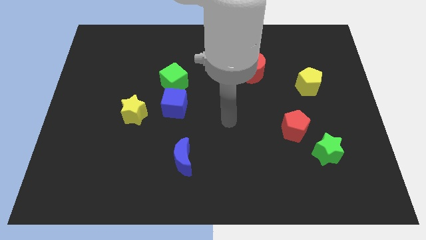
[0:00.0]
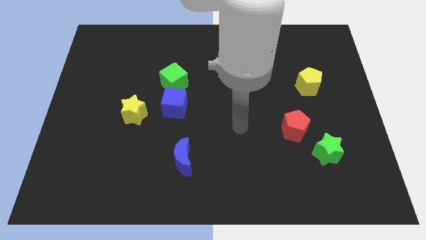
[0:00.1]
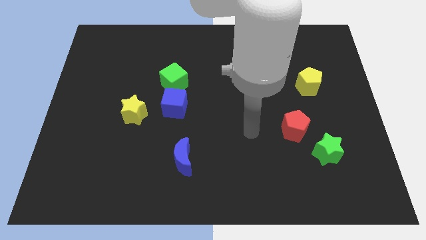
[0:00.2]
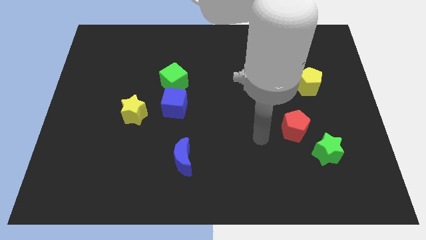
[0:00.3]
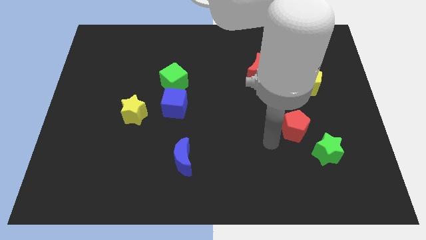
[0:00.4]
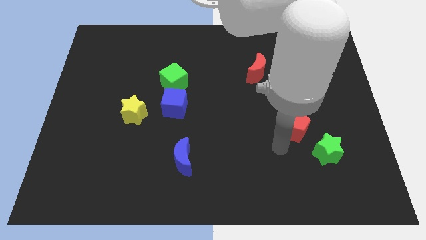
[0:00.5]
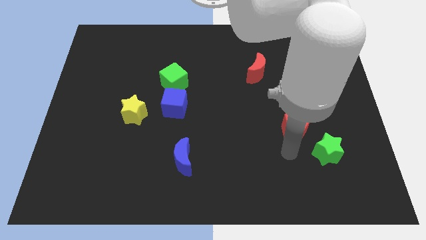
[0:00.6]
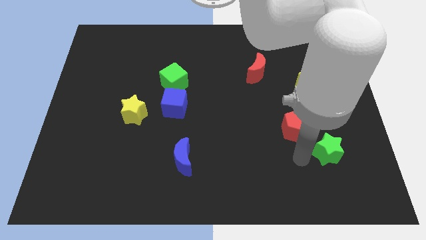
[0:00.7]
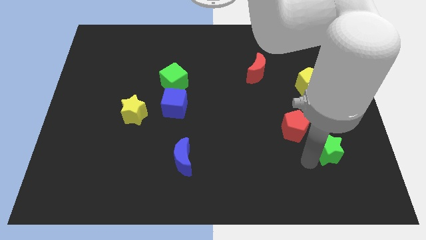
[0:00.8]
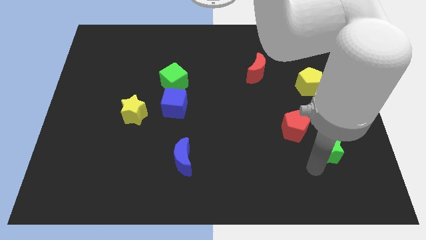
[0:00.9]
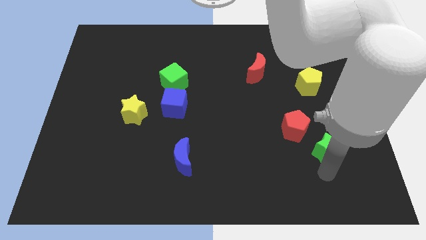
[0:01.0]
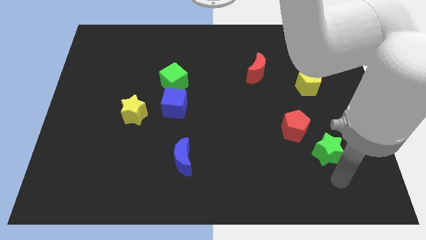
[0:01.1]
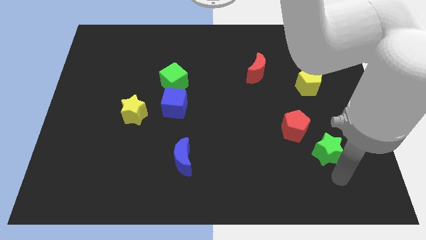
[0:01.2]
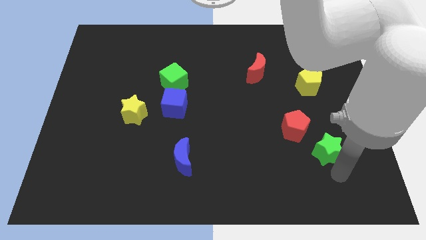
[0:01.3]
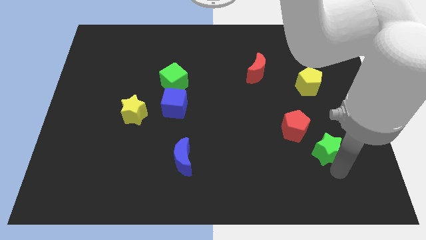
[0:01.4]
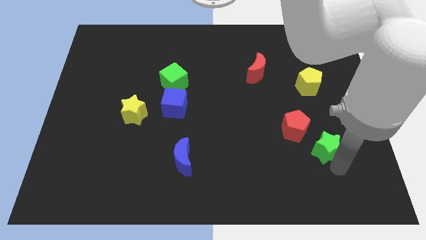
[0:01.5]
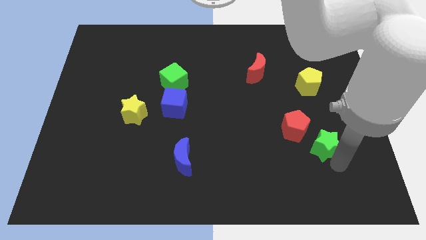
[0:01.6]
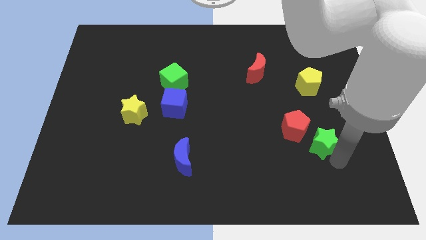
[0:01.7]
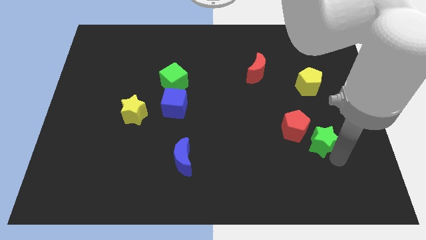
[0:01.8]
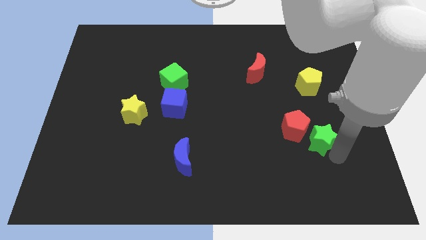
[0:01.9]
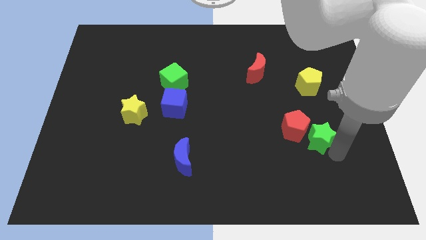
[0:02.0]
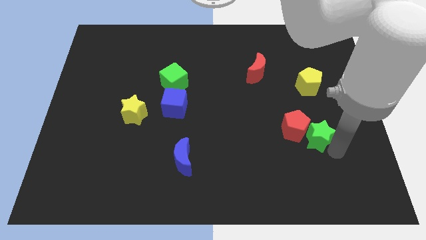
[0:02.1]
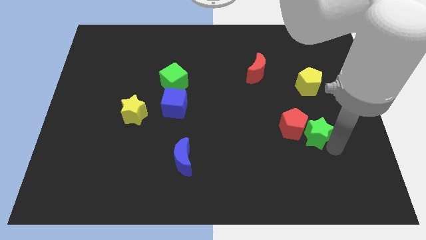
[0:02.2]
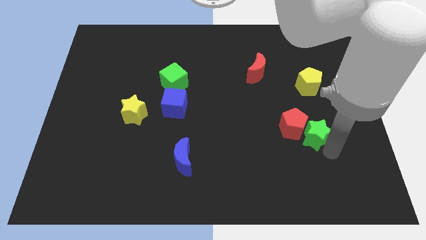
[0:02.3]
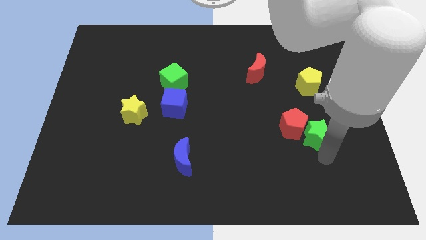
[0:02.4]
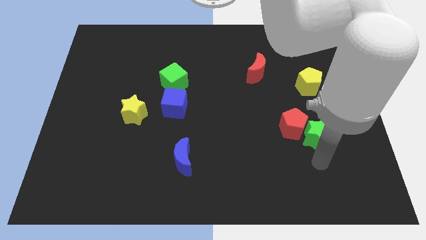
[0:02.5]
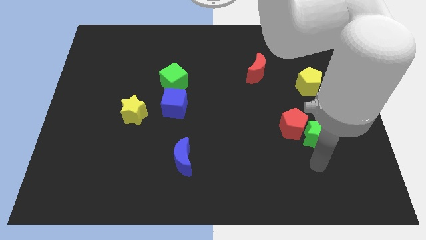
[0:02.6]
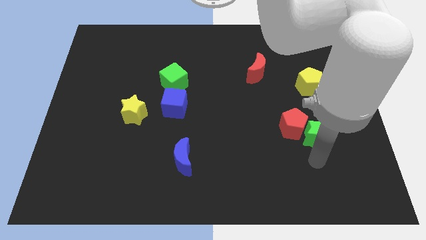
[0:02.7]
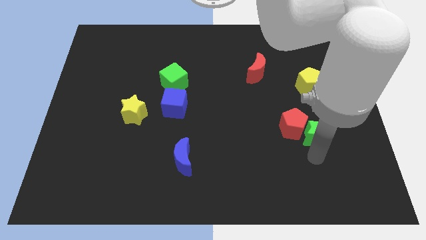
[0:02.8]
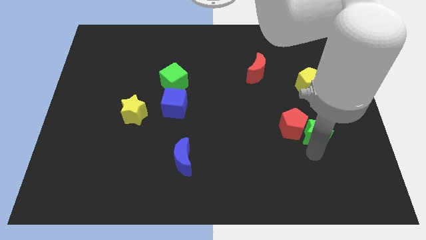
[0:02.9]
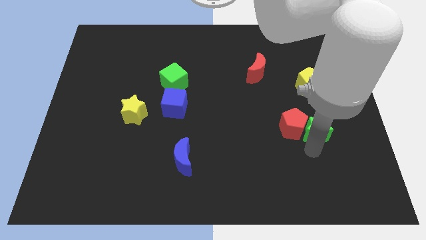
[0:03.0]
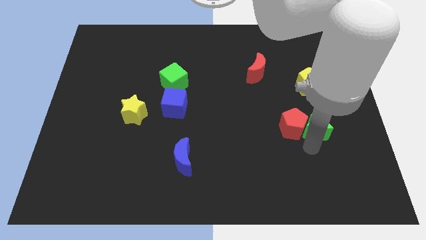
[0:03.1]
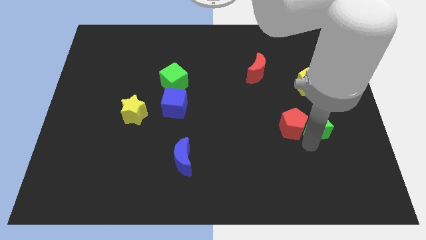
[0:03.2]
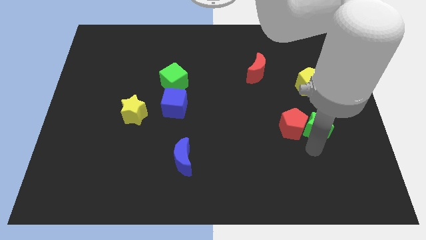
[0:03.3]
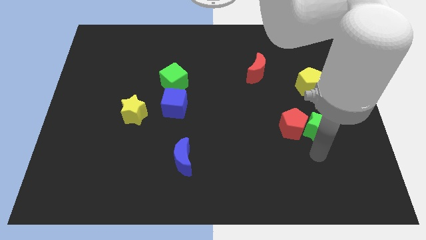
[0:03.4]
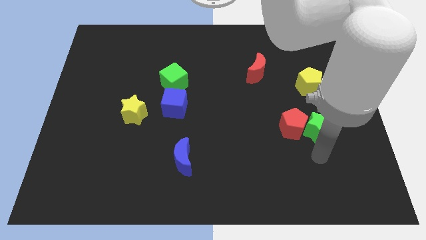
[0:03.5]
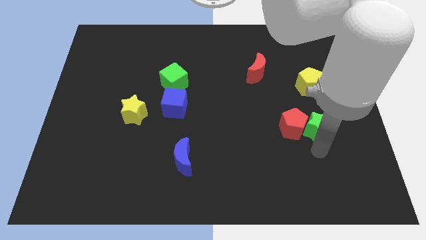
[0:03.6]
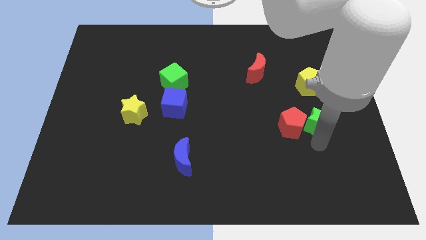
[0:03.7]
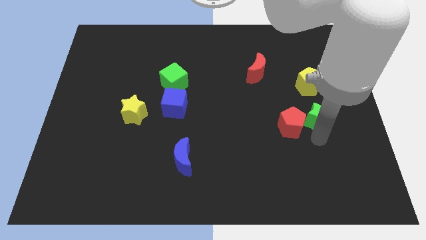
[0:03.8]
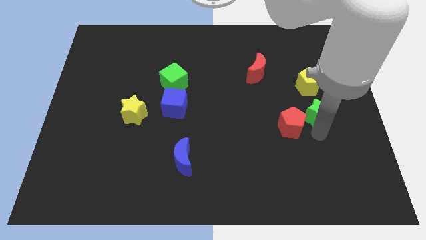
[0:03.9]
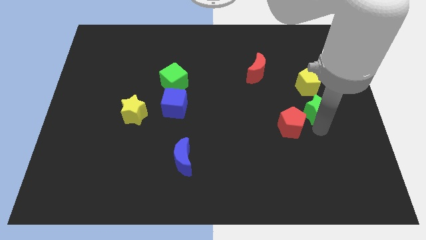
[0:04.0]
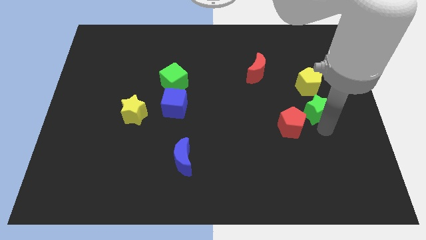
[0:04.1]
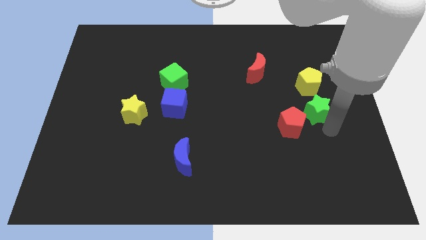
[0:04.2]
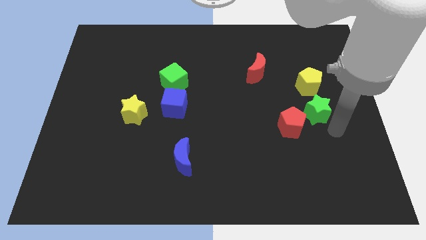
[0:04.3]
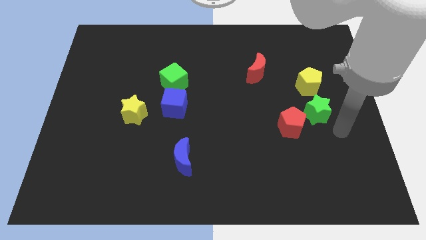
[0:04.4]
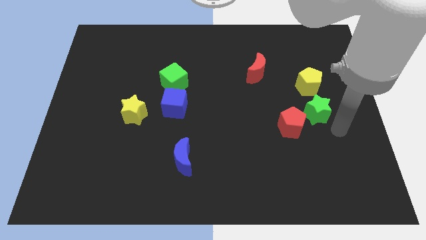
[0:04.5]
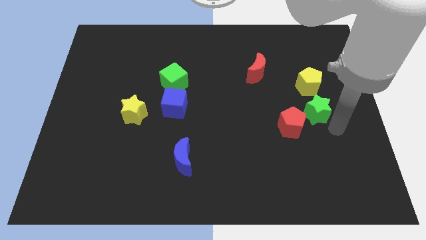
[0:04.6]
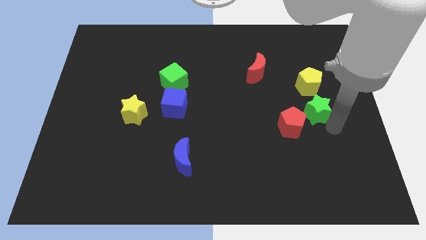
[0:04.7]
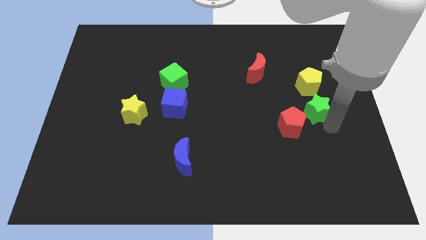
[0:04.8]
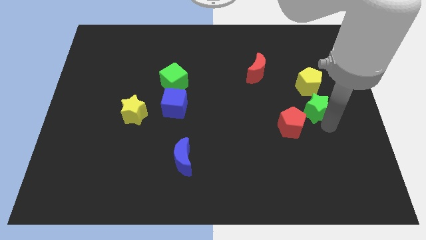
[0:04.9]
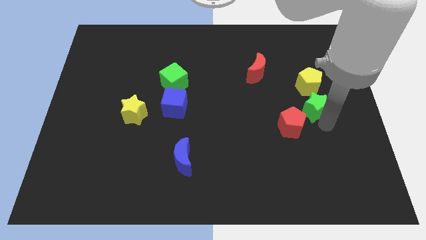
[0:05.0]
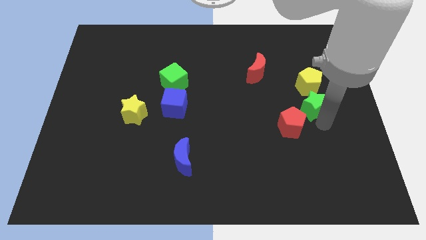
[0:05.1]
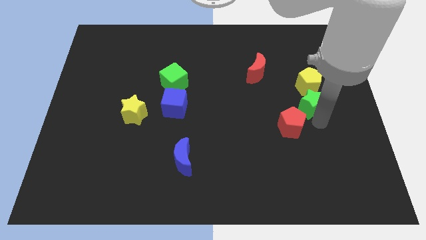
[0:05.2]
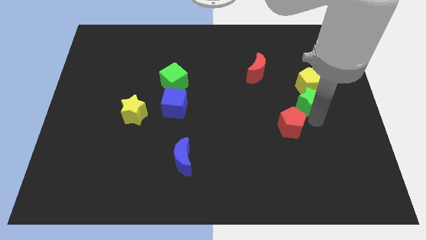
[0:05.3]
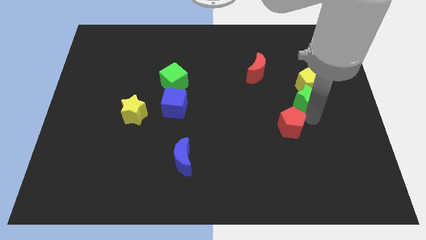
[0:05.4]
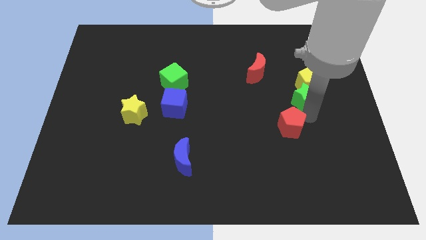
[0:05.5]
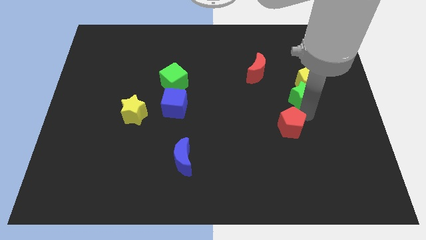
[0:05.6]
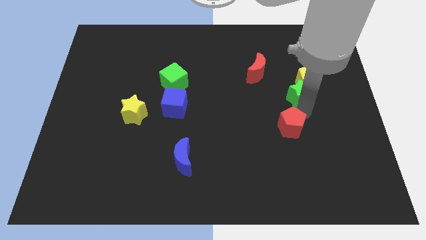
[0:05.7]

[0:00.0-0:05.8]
push the green star to the bottom right of the red moon

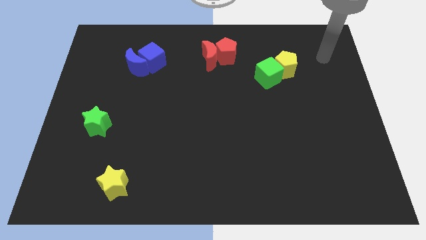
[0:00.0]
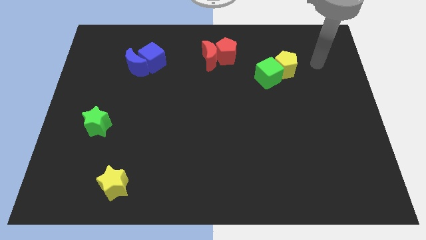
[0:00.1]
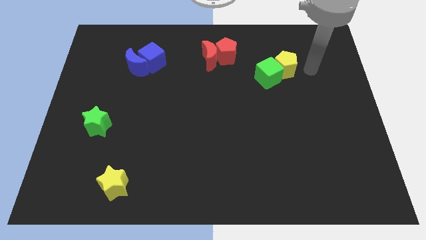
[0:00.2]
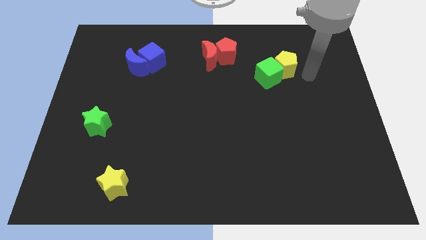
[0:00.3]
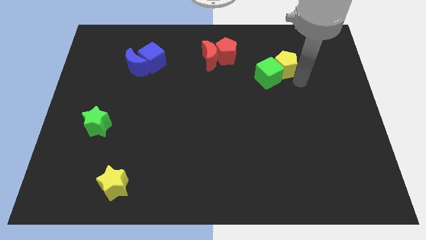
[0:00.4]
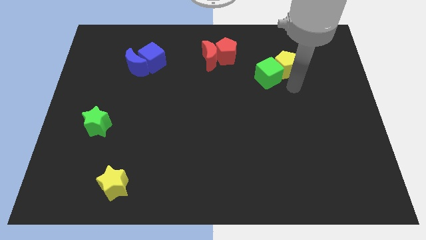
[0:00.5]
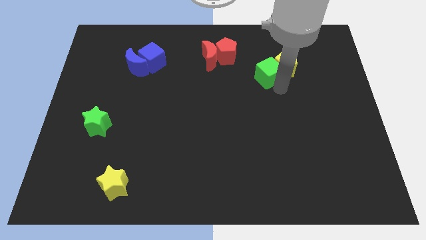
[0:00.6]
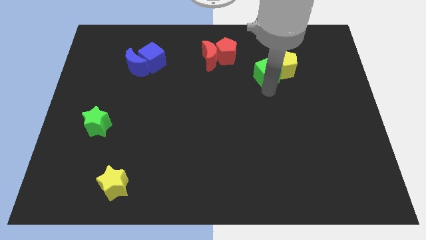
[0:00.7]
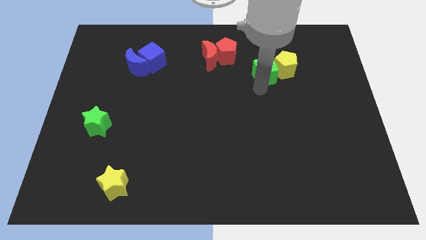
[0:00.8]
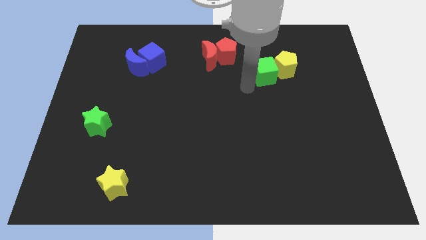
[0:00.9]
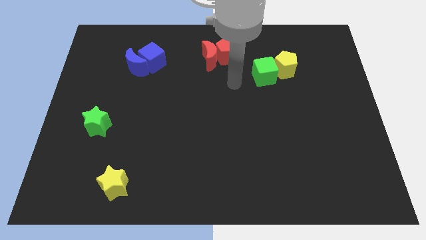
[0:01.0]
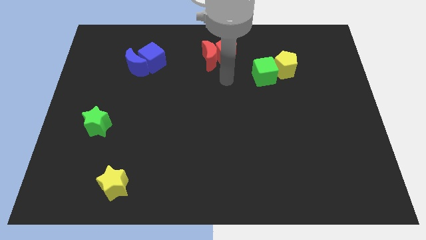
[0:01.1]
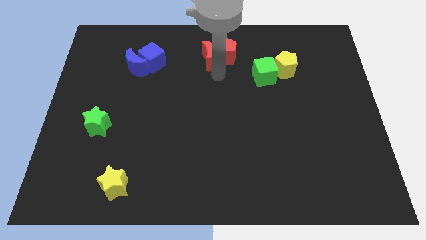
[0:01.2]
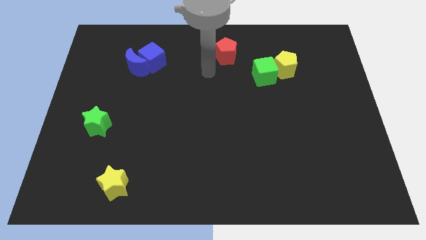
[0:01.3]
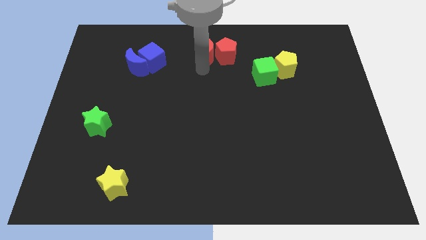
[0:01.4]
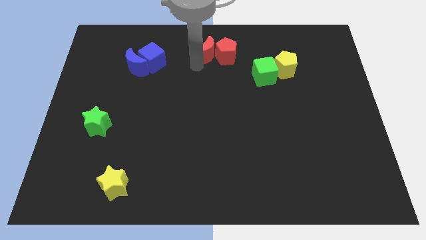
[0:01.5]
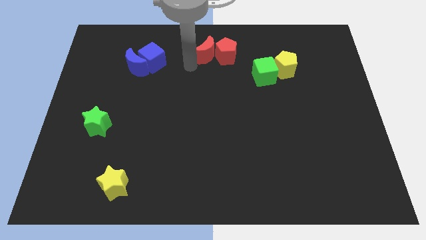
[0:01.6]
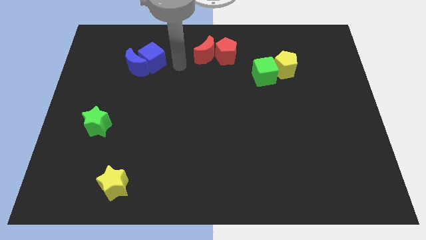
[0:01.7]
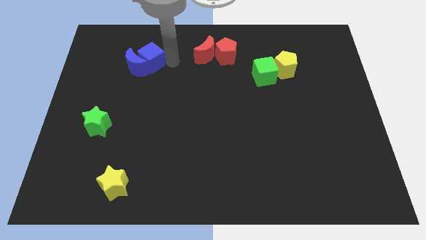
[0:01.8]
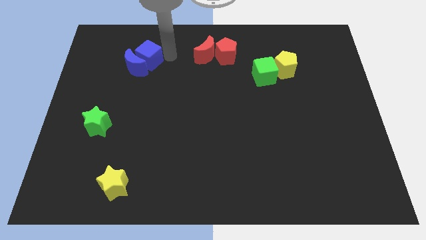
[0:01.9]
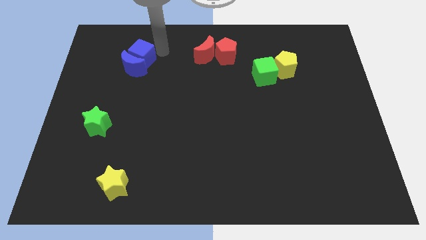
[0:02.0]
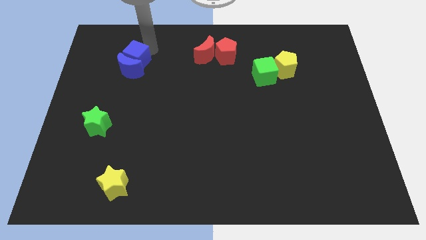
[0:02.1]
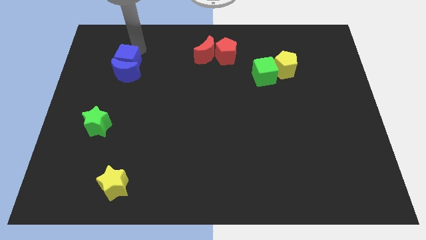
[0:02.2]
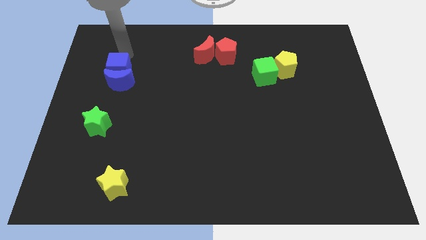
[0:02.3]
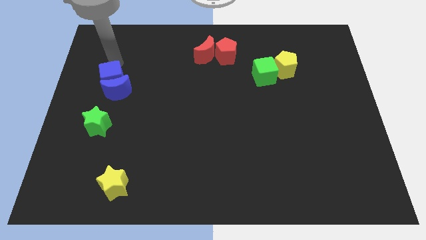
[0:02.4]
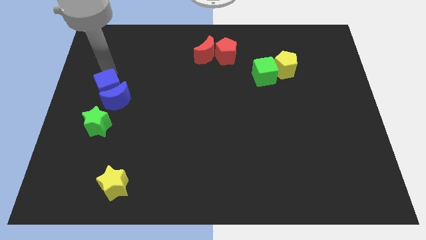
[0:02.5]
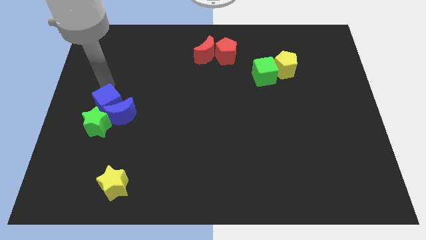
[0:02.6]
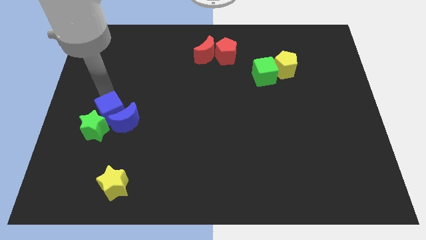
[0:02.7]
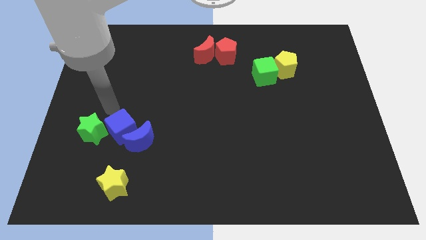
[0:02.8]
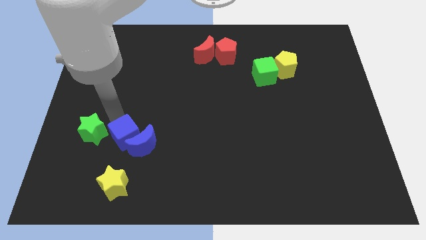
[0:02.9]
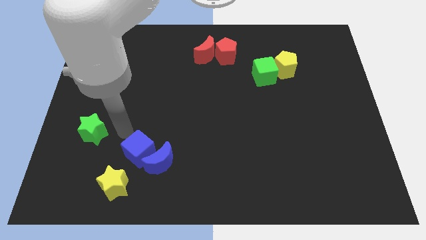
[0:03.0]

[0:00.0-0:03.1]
push the blue moon to the right of the yellow star
